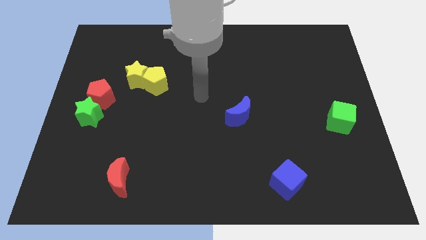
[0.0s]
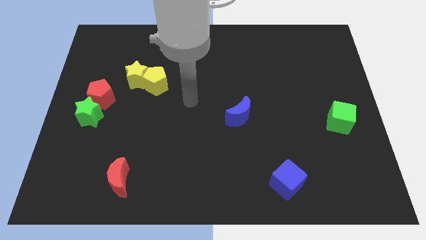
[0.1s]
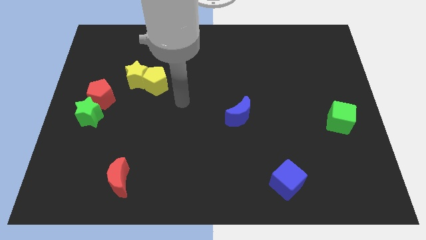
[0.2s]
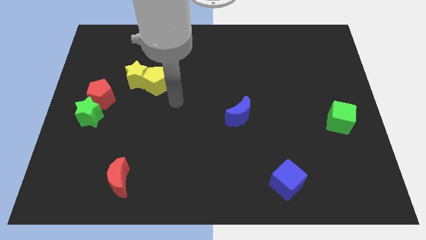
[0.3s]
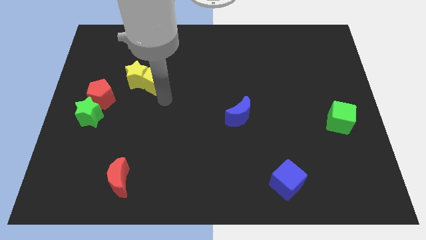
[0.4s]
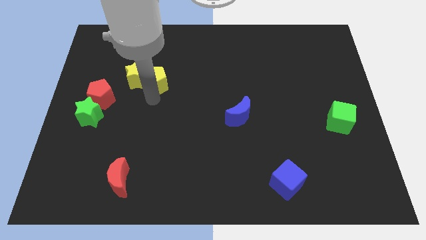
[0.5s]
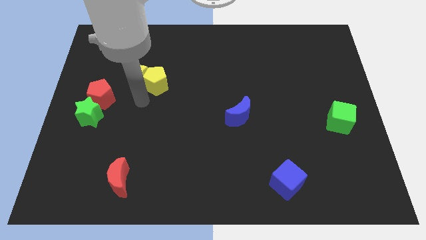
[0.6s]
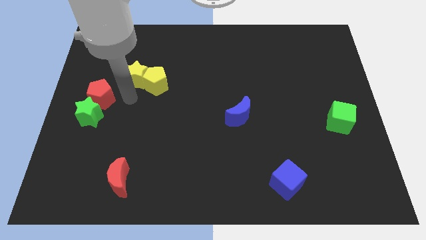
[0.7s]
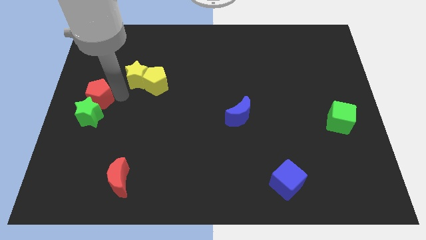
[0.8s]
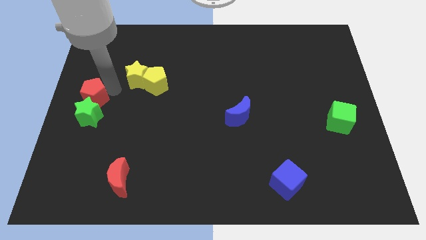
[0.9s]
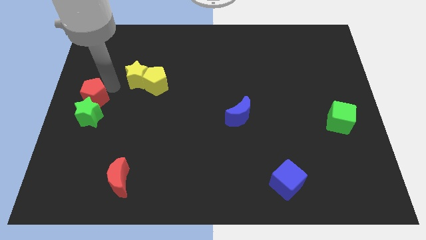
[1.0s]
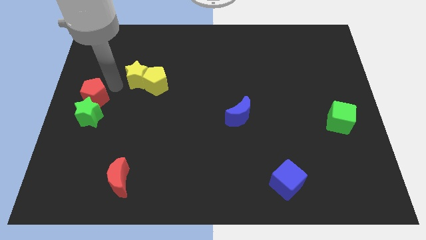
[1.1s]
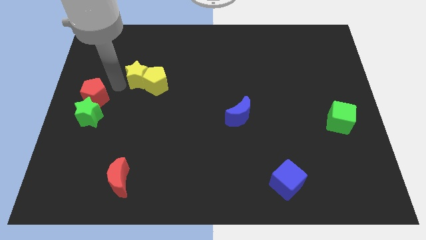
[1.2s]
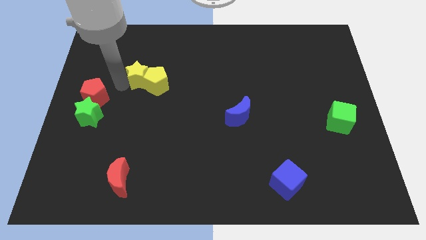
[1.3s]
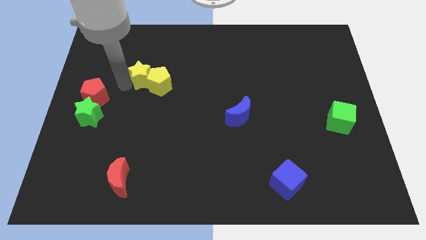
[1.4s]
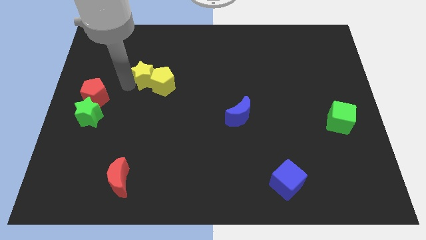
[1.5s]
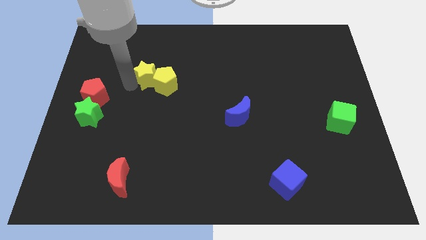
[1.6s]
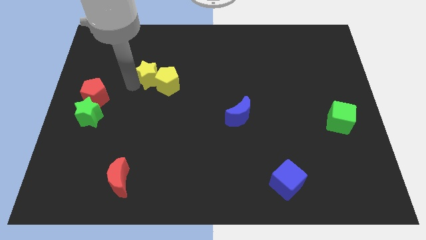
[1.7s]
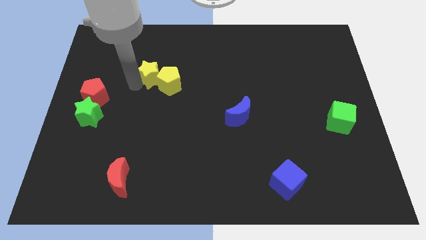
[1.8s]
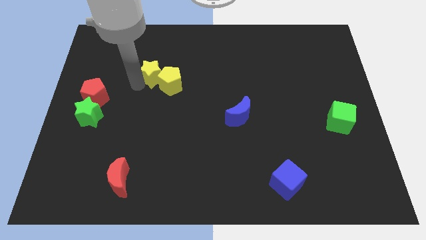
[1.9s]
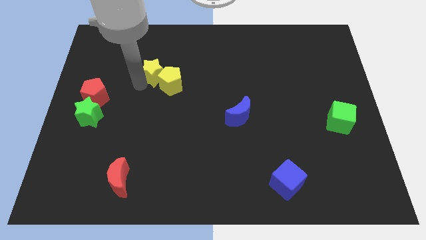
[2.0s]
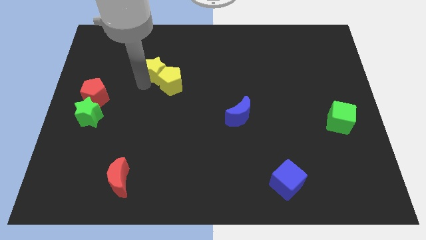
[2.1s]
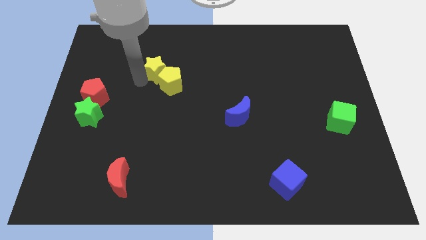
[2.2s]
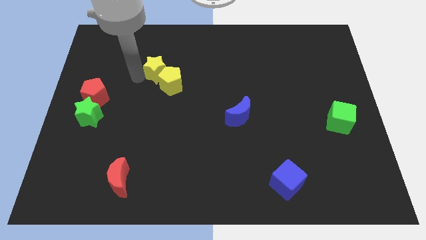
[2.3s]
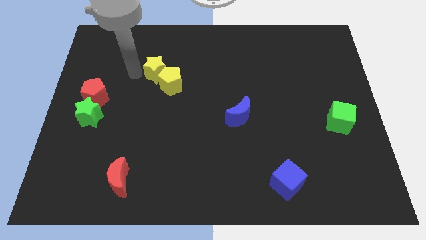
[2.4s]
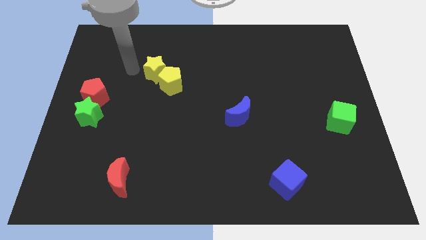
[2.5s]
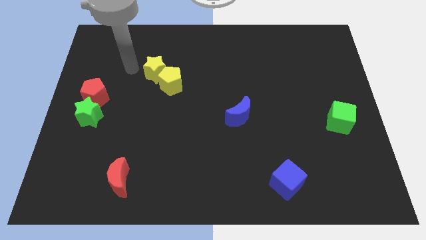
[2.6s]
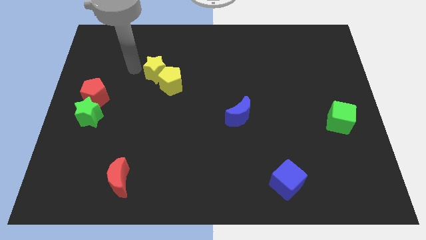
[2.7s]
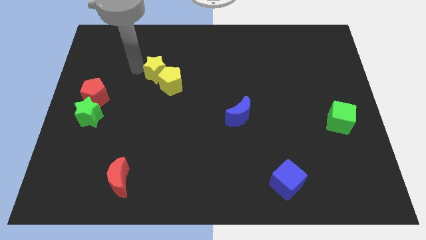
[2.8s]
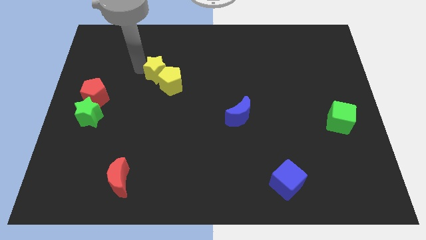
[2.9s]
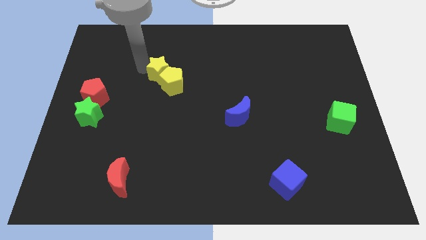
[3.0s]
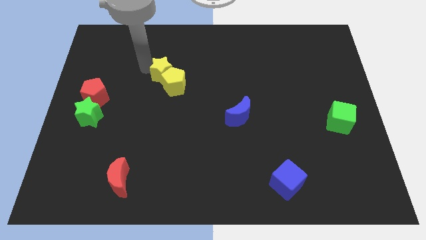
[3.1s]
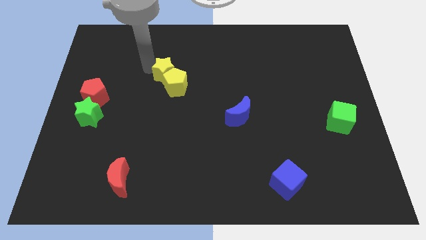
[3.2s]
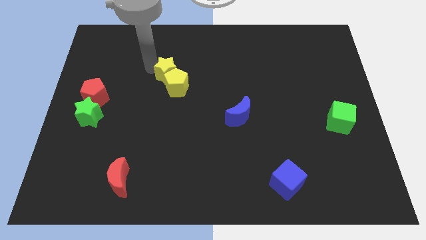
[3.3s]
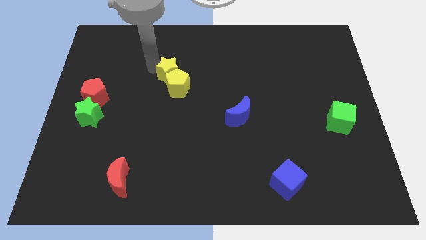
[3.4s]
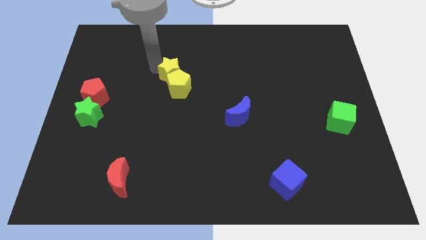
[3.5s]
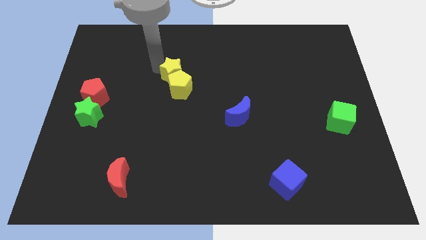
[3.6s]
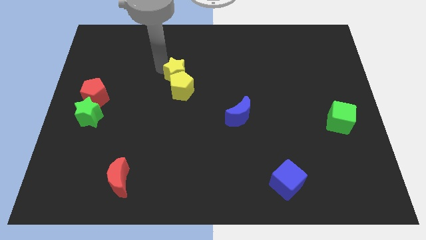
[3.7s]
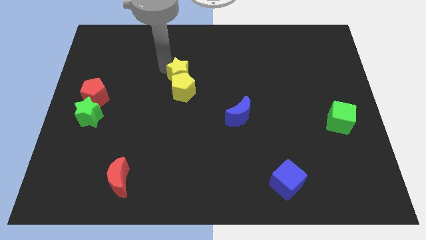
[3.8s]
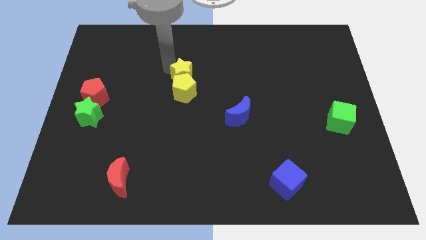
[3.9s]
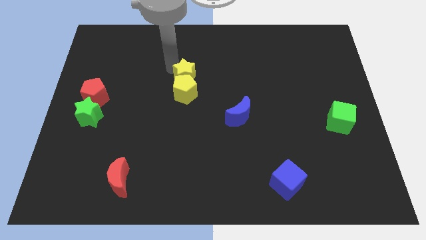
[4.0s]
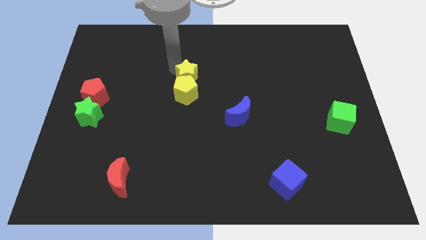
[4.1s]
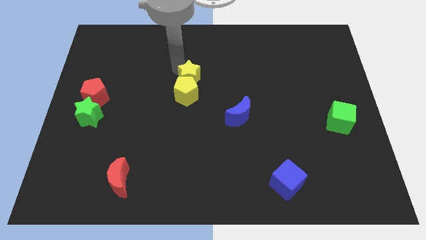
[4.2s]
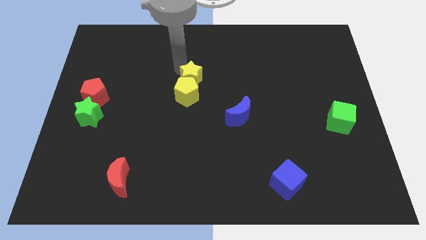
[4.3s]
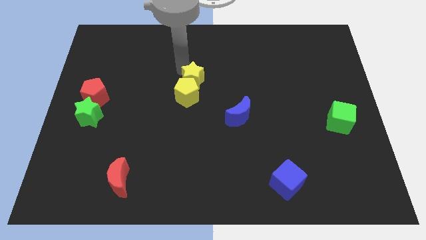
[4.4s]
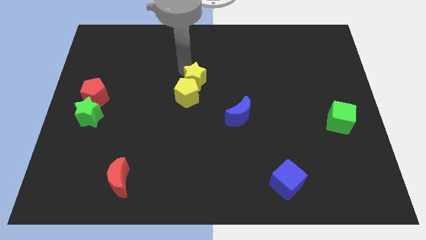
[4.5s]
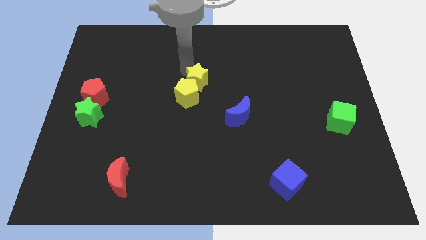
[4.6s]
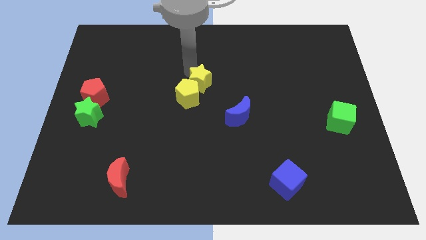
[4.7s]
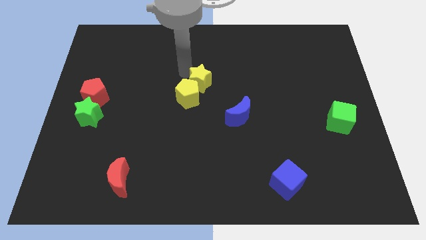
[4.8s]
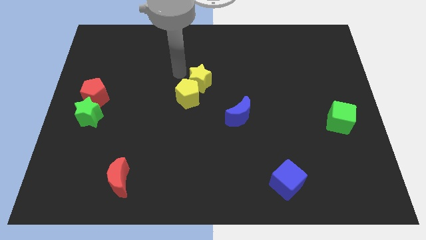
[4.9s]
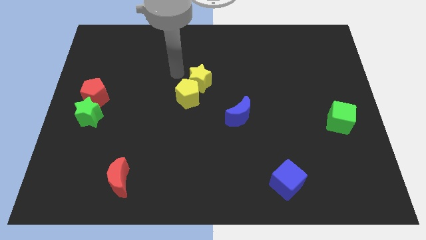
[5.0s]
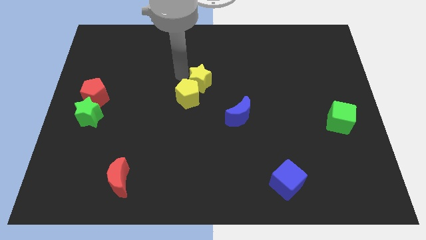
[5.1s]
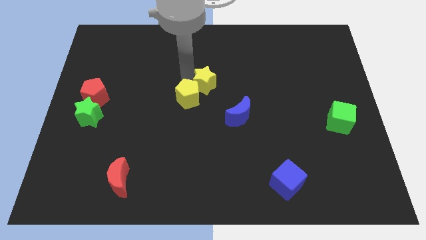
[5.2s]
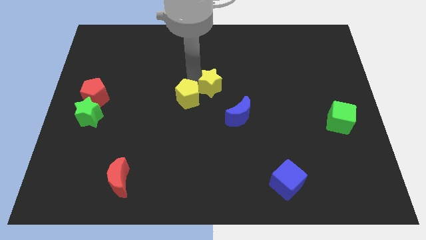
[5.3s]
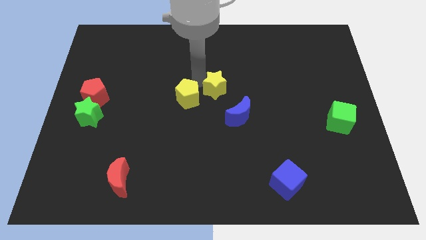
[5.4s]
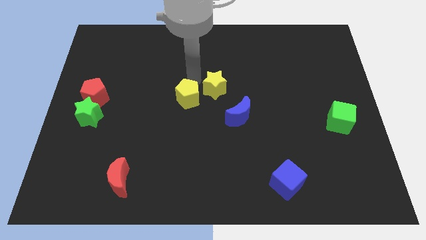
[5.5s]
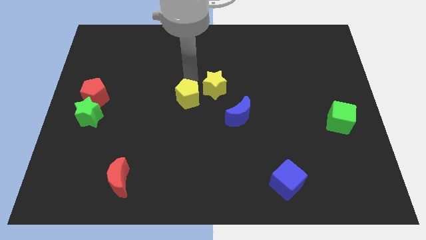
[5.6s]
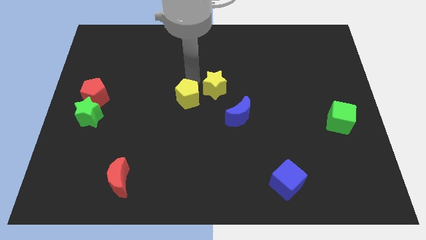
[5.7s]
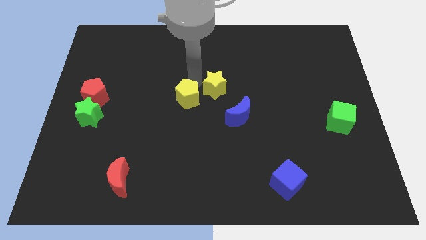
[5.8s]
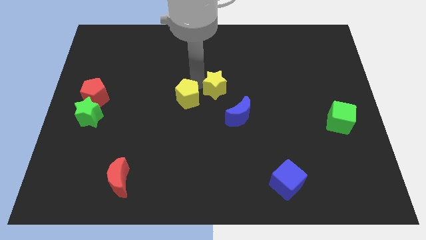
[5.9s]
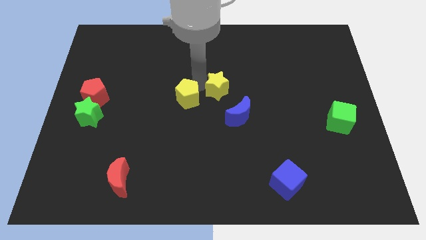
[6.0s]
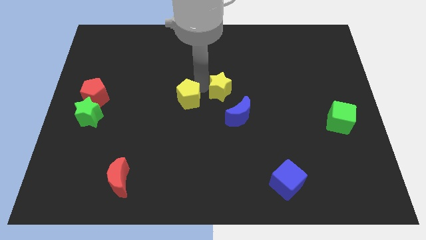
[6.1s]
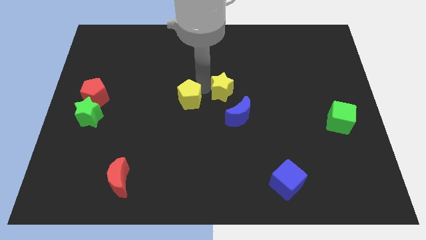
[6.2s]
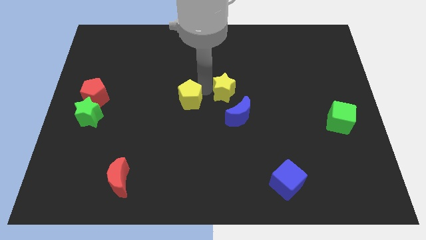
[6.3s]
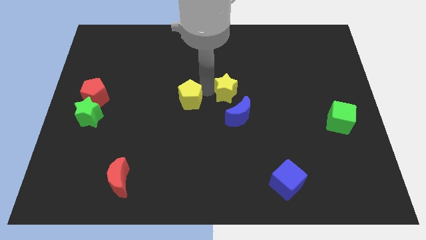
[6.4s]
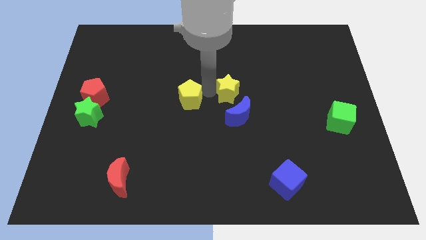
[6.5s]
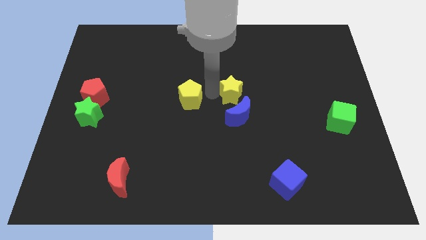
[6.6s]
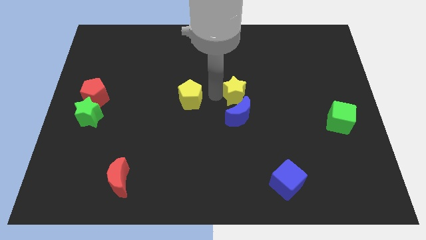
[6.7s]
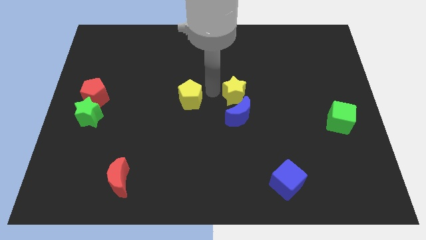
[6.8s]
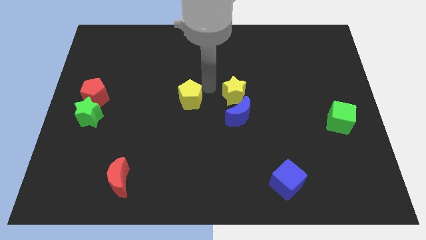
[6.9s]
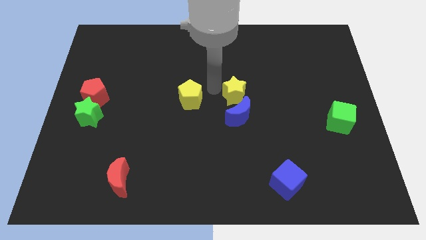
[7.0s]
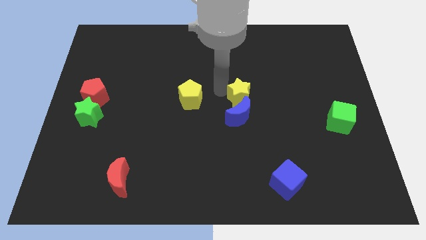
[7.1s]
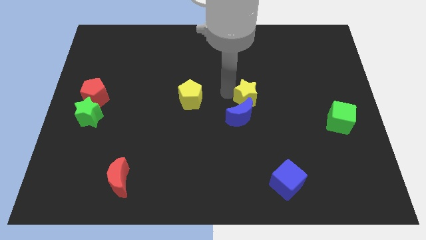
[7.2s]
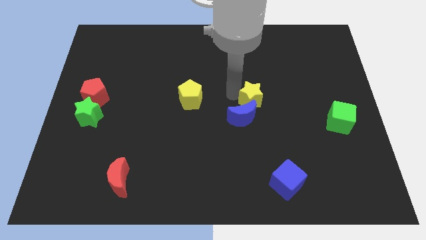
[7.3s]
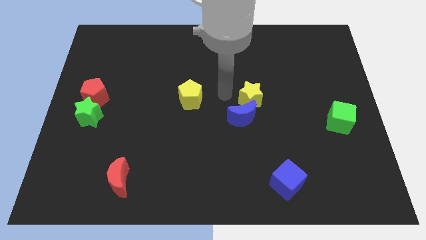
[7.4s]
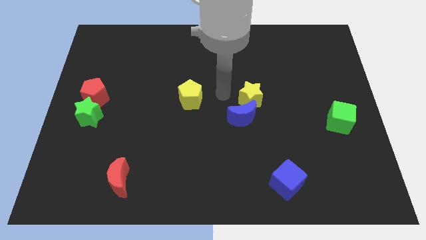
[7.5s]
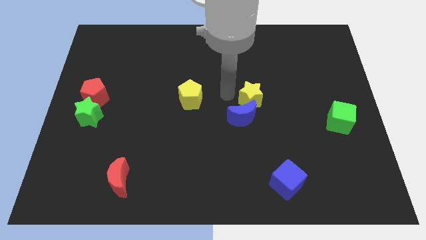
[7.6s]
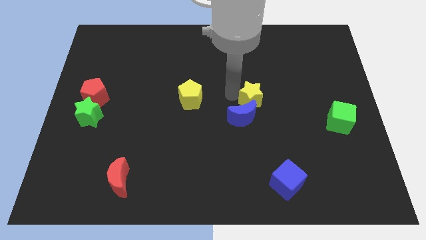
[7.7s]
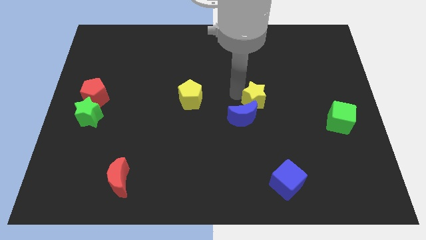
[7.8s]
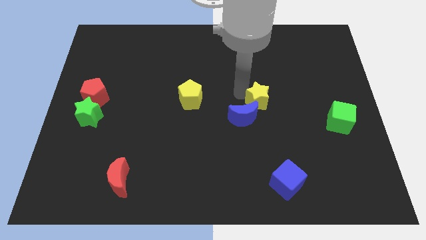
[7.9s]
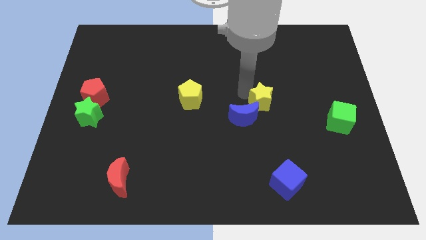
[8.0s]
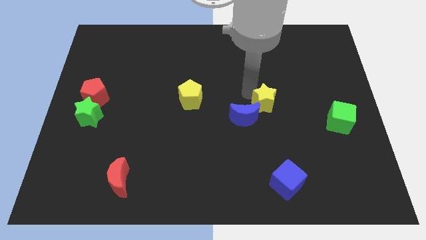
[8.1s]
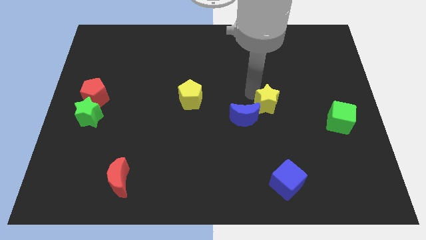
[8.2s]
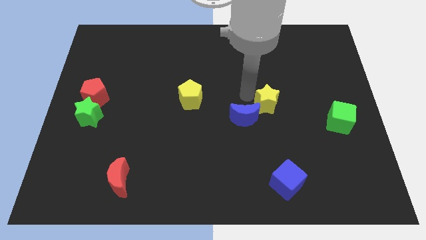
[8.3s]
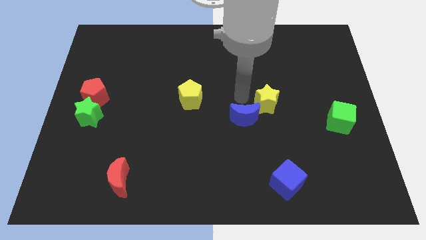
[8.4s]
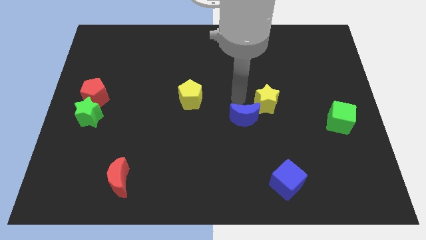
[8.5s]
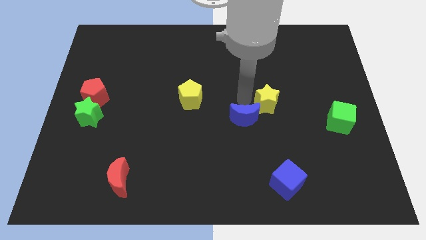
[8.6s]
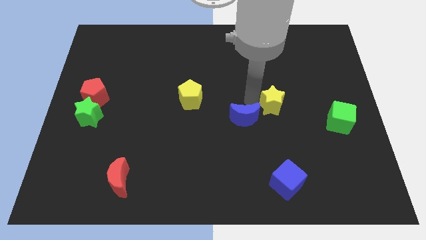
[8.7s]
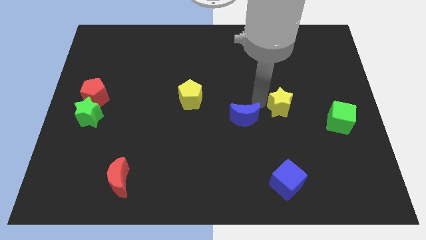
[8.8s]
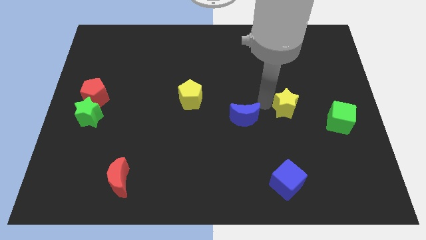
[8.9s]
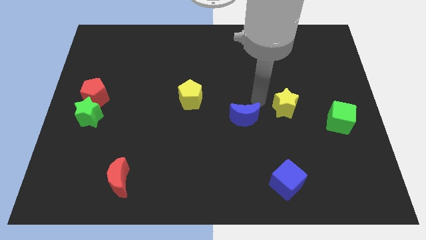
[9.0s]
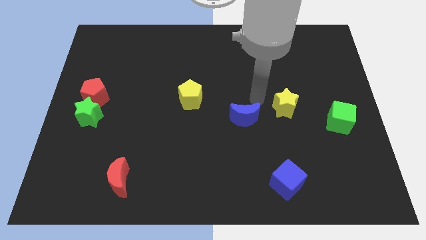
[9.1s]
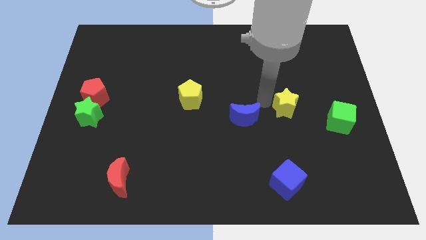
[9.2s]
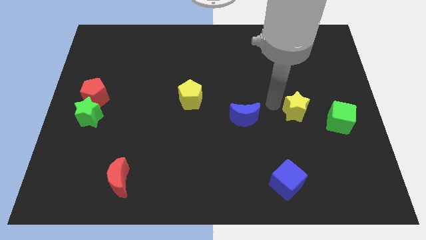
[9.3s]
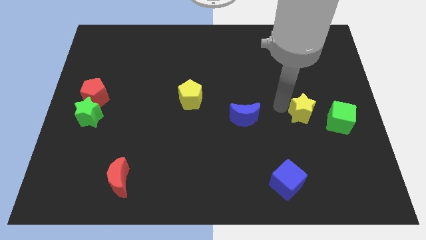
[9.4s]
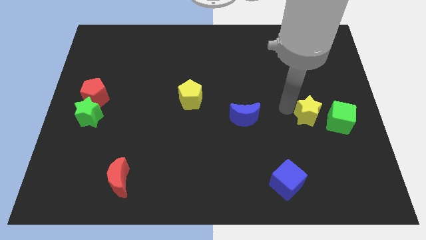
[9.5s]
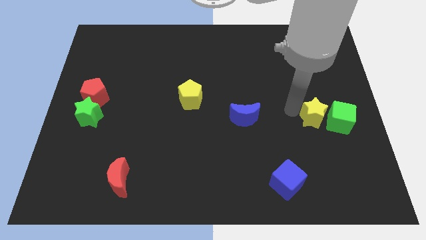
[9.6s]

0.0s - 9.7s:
slide the yellow star close to the green cube
